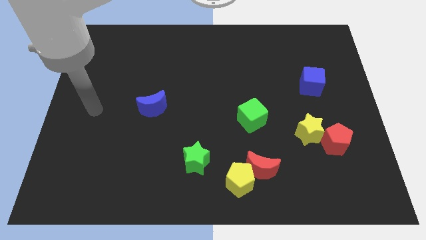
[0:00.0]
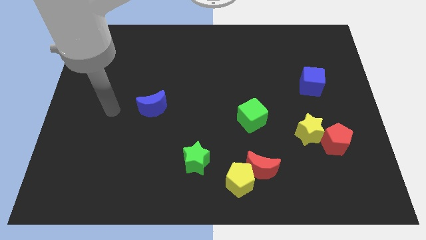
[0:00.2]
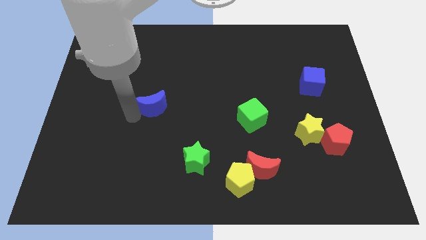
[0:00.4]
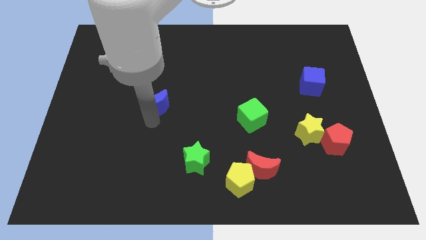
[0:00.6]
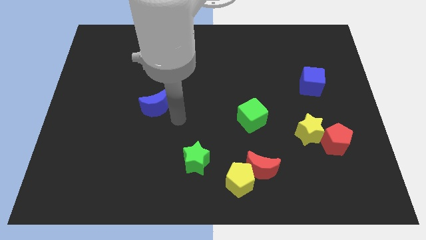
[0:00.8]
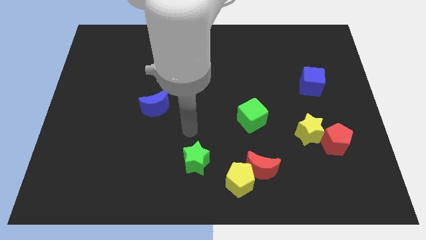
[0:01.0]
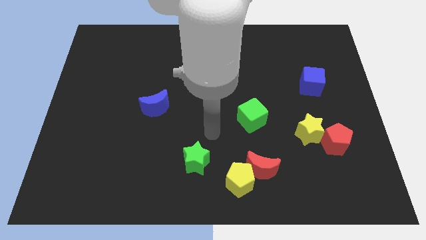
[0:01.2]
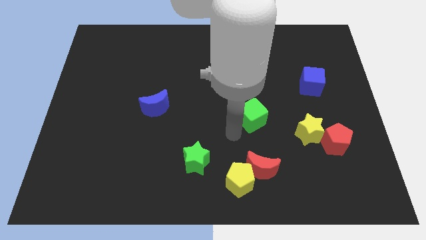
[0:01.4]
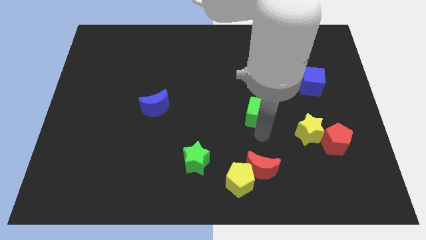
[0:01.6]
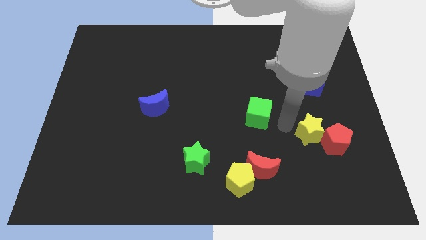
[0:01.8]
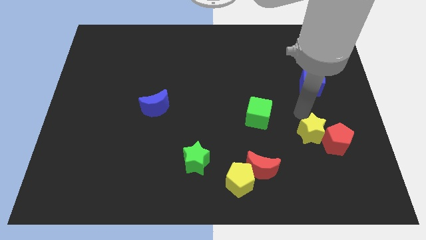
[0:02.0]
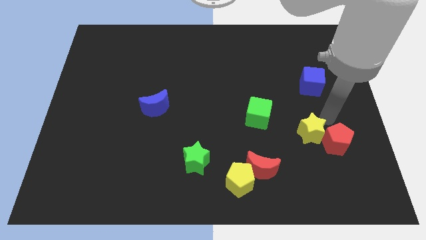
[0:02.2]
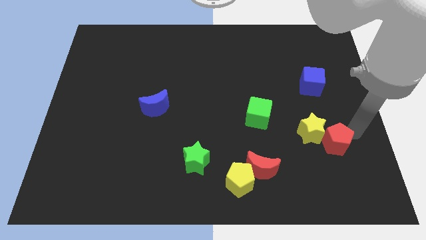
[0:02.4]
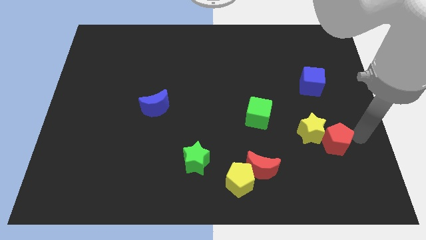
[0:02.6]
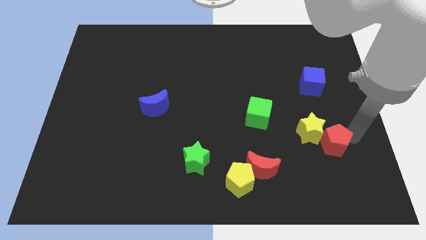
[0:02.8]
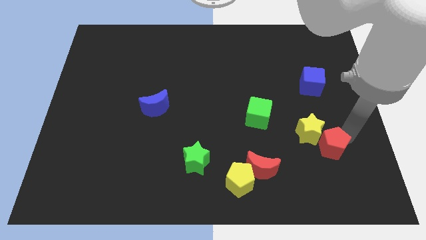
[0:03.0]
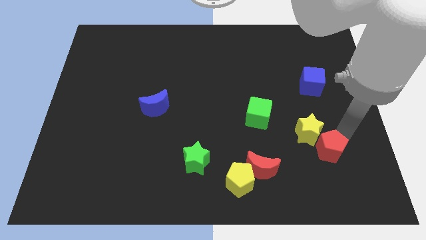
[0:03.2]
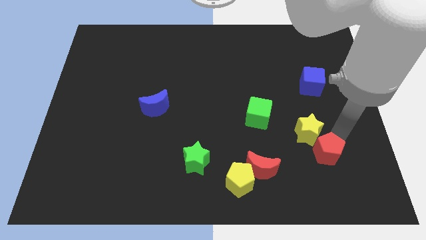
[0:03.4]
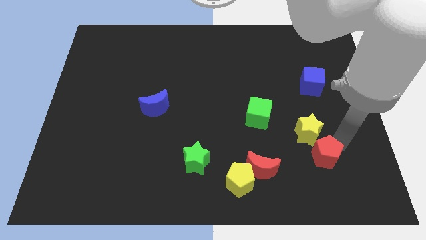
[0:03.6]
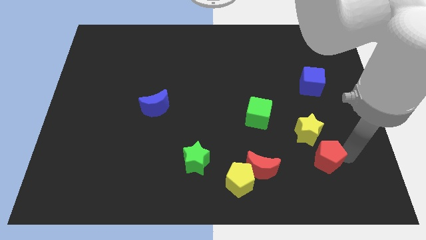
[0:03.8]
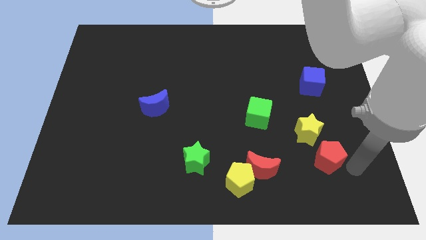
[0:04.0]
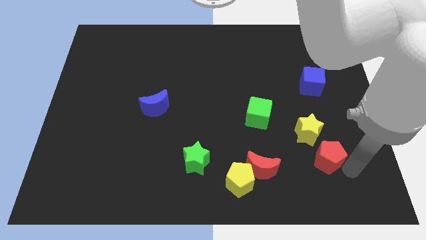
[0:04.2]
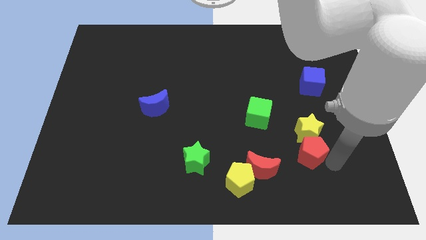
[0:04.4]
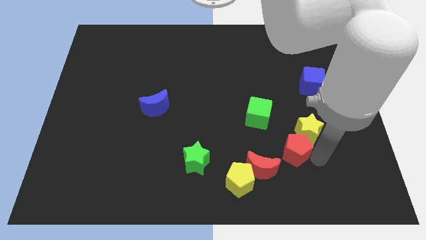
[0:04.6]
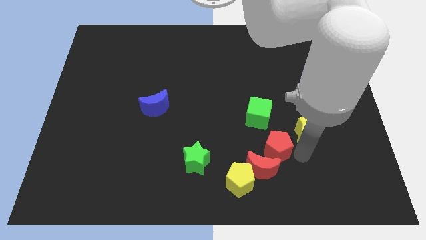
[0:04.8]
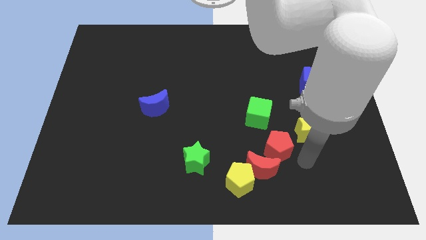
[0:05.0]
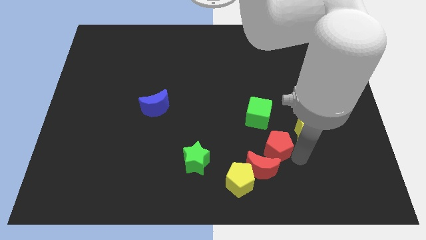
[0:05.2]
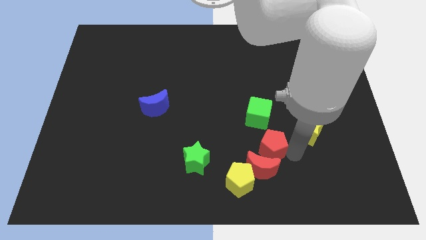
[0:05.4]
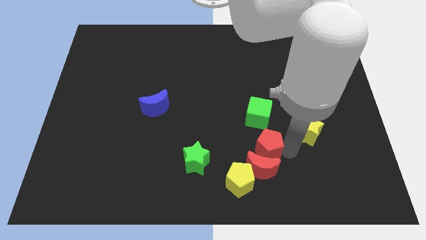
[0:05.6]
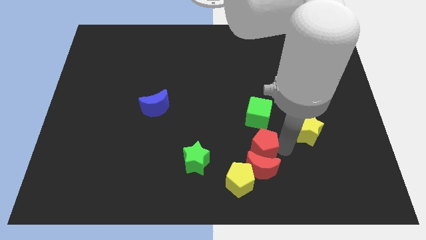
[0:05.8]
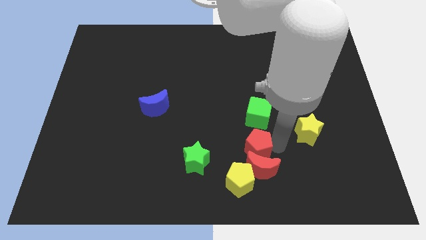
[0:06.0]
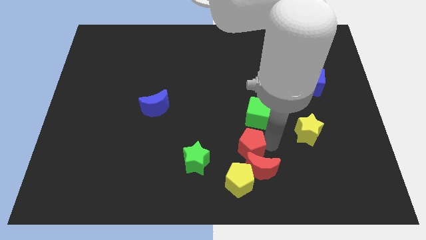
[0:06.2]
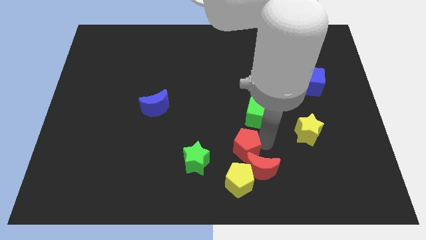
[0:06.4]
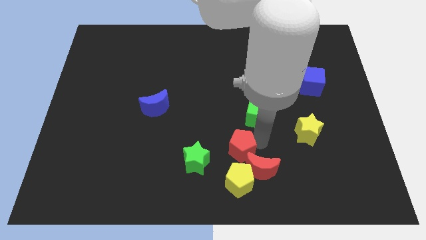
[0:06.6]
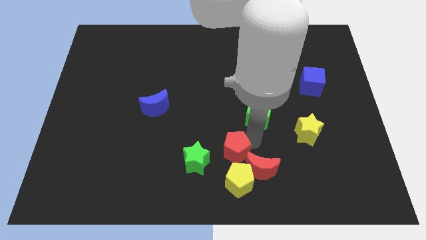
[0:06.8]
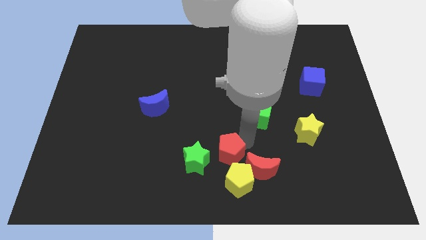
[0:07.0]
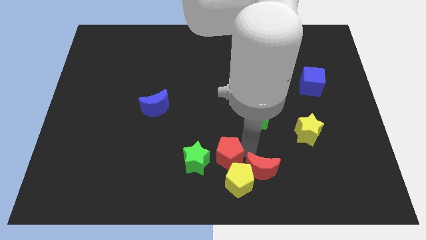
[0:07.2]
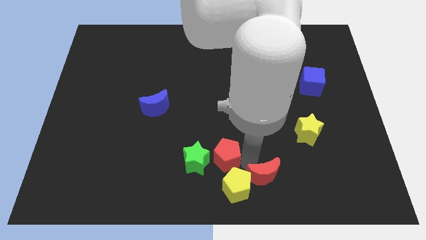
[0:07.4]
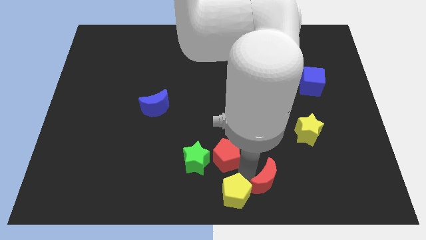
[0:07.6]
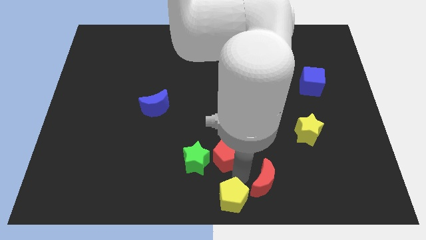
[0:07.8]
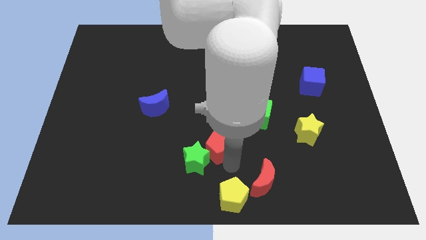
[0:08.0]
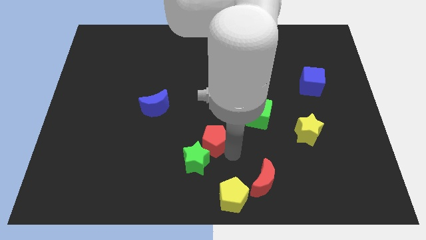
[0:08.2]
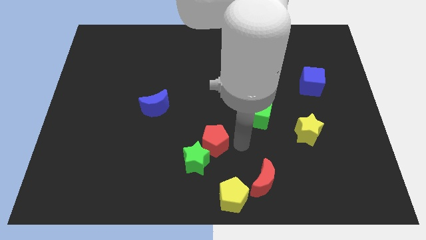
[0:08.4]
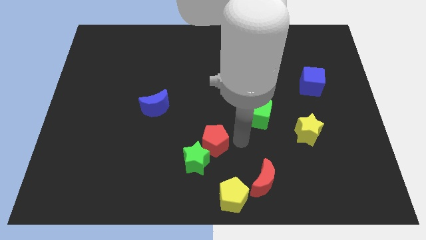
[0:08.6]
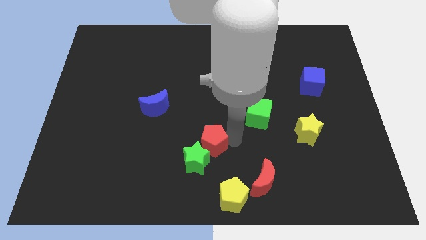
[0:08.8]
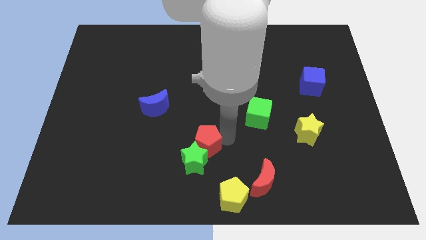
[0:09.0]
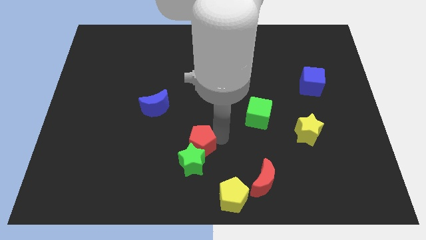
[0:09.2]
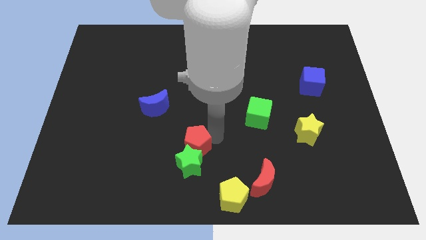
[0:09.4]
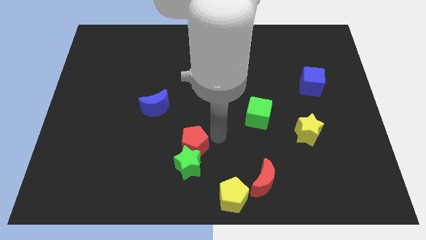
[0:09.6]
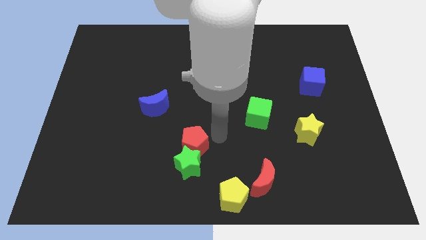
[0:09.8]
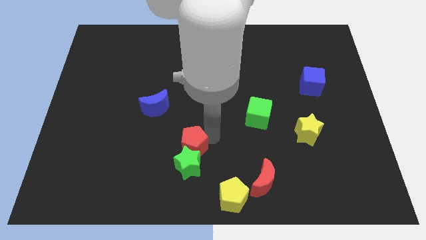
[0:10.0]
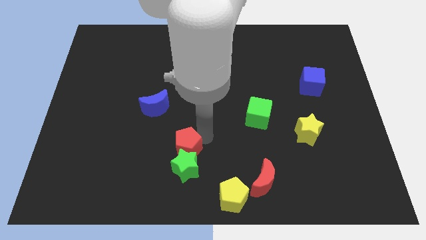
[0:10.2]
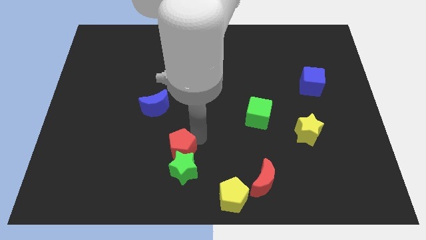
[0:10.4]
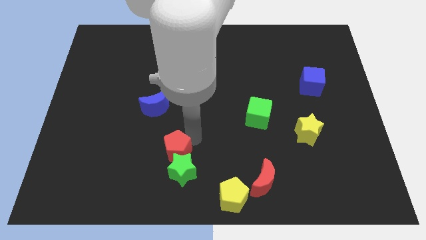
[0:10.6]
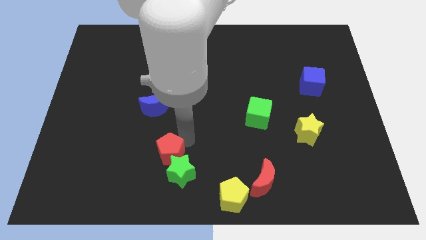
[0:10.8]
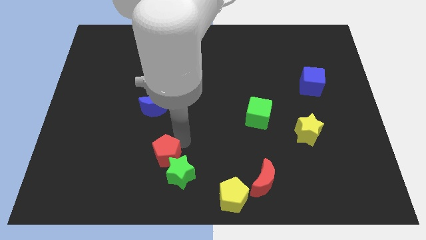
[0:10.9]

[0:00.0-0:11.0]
push the red pentagon to the left side of the green star

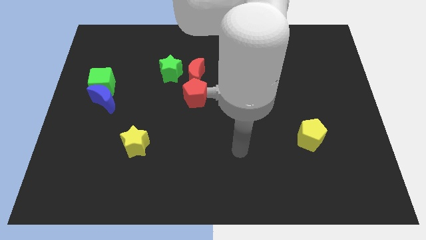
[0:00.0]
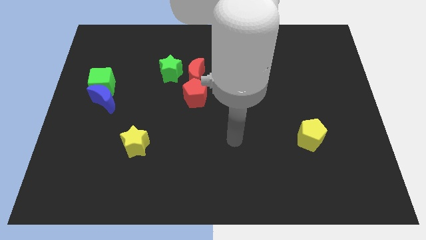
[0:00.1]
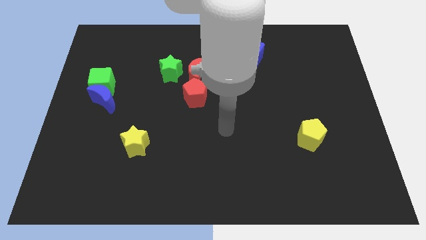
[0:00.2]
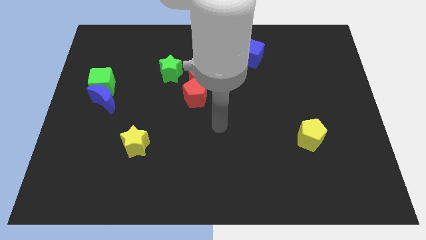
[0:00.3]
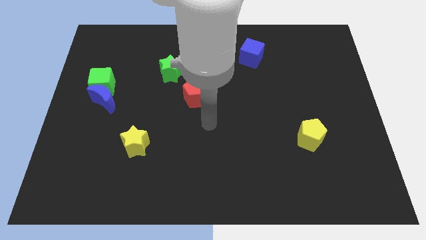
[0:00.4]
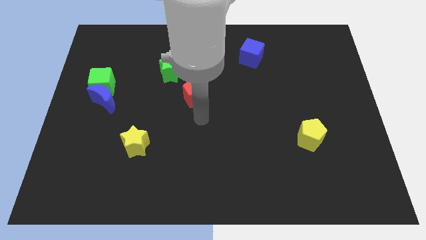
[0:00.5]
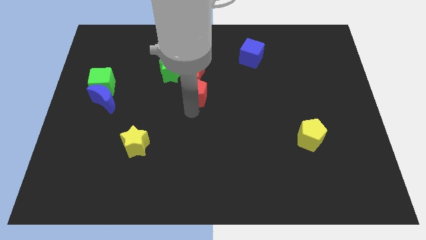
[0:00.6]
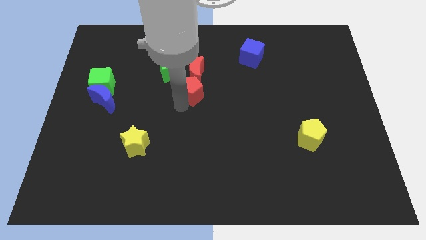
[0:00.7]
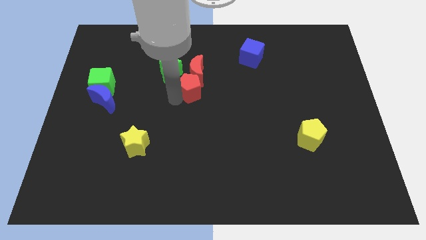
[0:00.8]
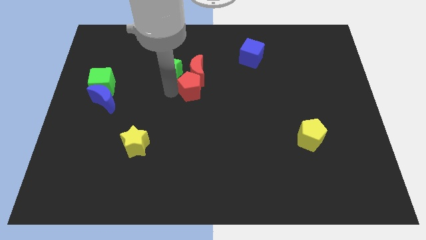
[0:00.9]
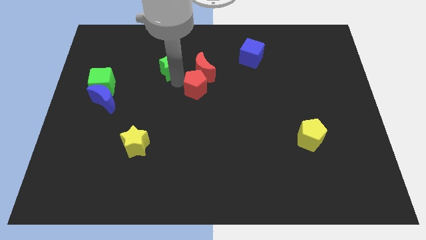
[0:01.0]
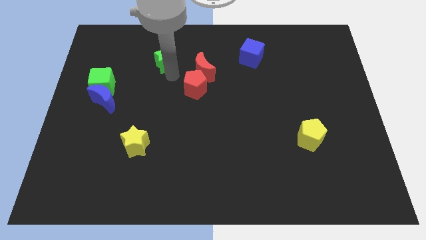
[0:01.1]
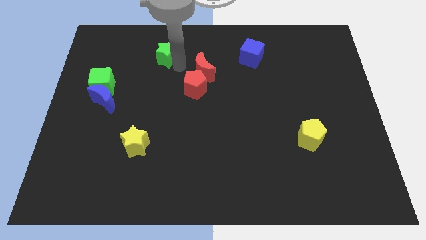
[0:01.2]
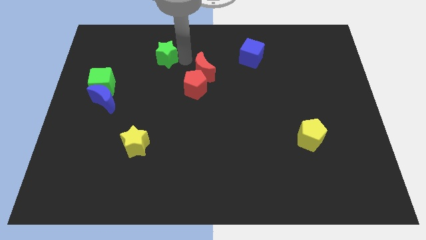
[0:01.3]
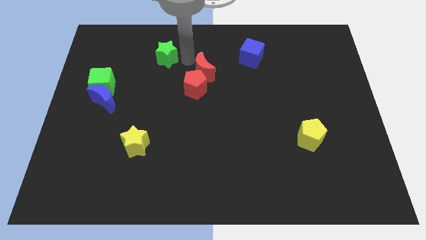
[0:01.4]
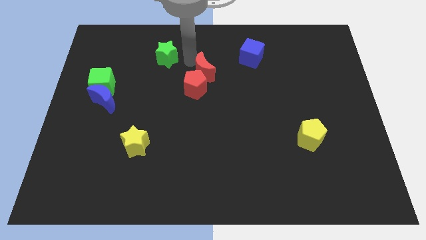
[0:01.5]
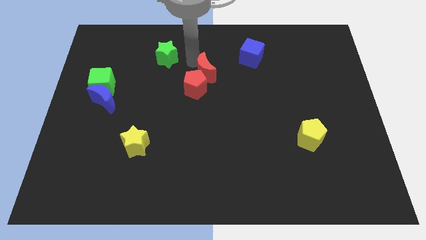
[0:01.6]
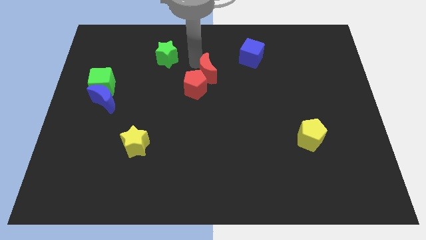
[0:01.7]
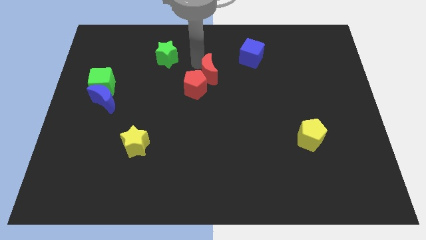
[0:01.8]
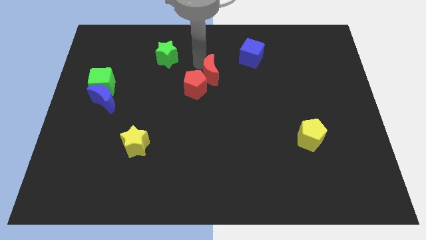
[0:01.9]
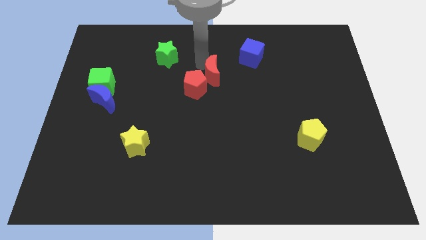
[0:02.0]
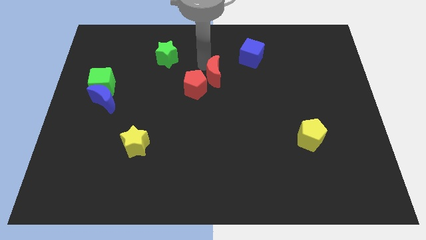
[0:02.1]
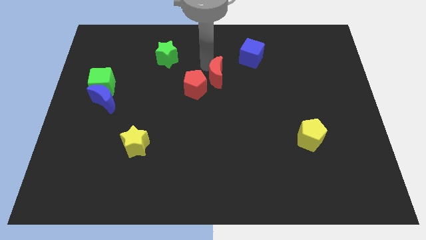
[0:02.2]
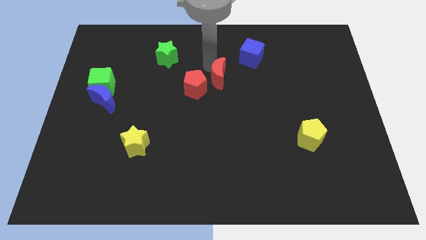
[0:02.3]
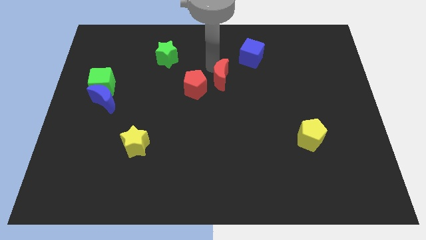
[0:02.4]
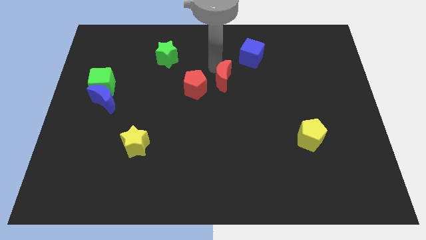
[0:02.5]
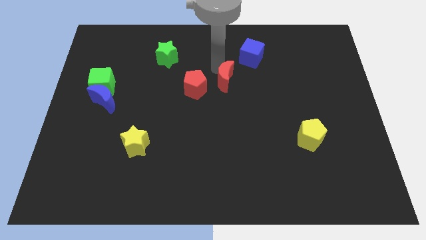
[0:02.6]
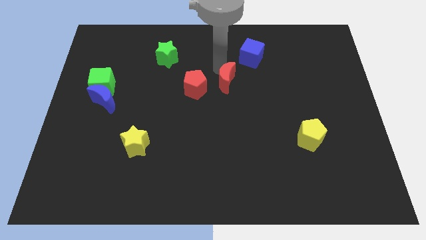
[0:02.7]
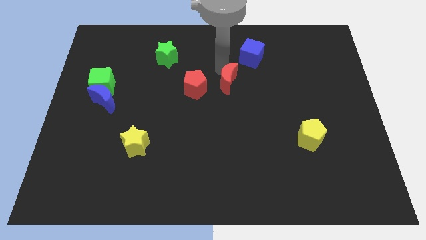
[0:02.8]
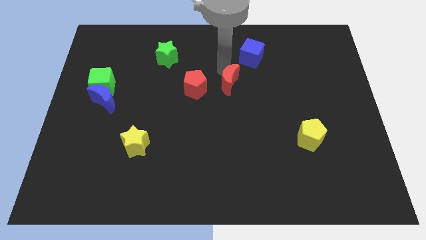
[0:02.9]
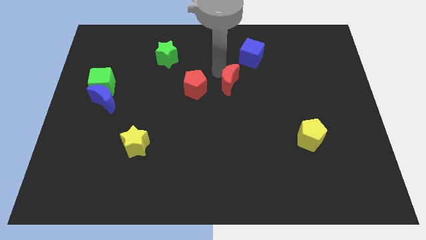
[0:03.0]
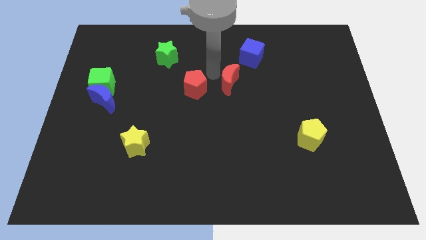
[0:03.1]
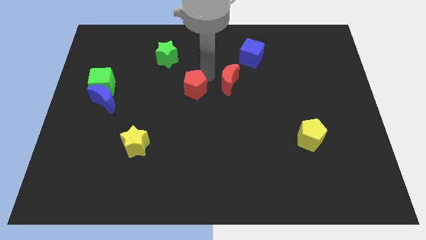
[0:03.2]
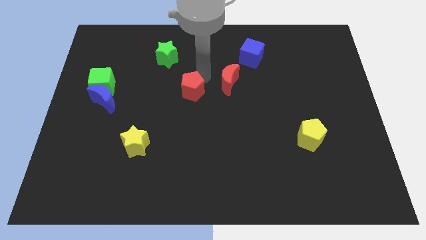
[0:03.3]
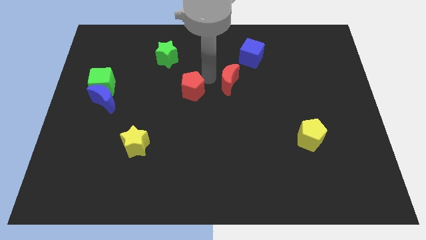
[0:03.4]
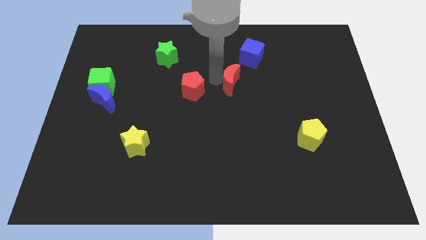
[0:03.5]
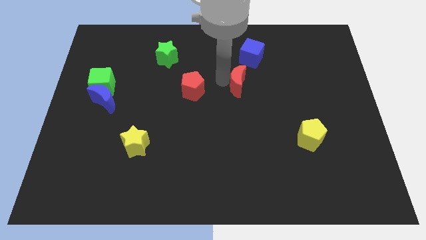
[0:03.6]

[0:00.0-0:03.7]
slide the red moon below the blue cube
